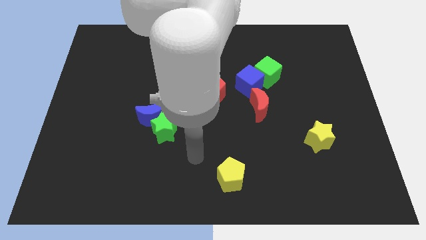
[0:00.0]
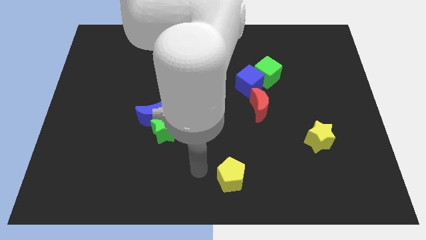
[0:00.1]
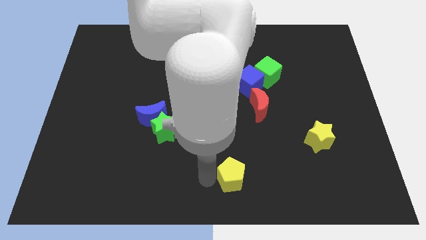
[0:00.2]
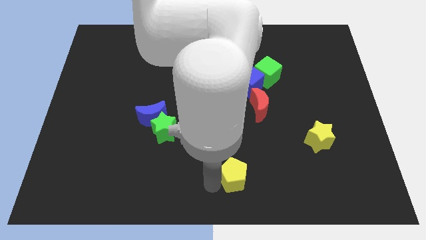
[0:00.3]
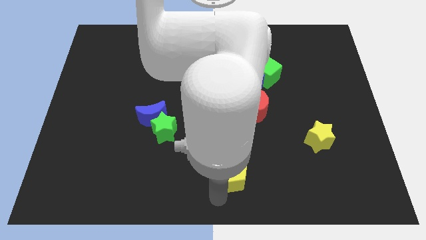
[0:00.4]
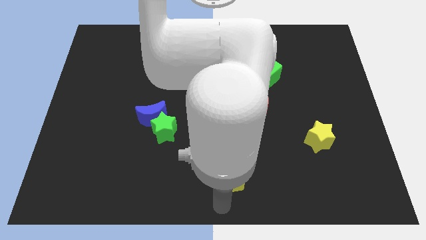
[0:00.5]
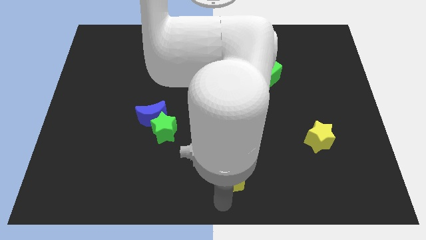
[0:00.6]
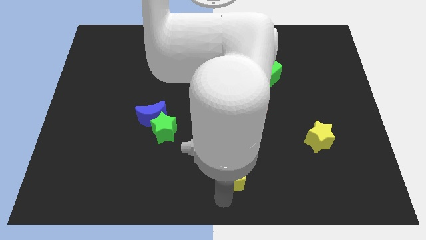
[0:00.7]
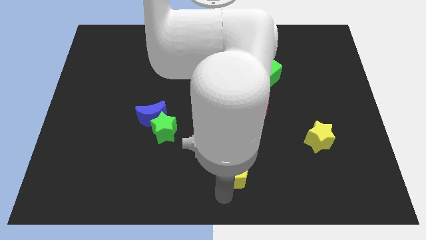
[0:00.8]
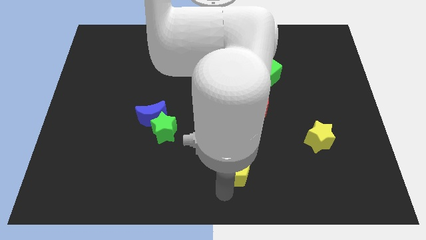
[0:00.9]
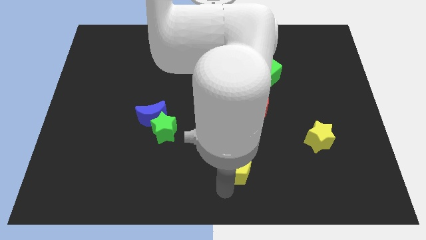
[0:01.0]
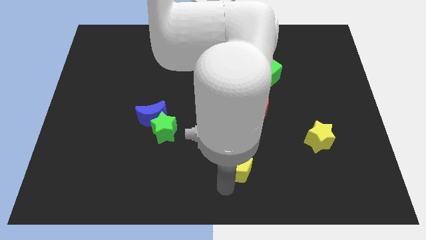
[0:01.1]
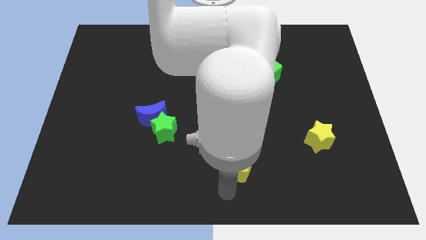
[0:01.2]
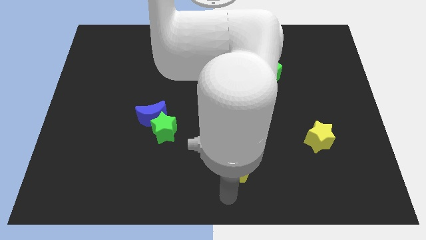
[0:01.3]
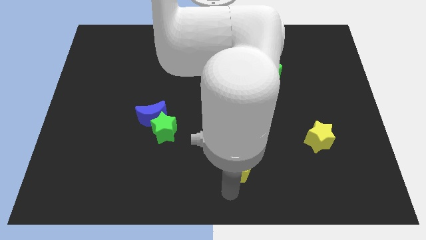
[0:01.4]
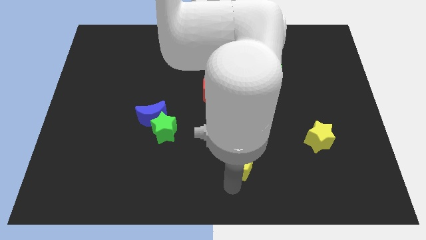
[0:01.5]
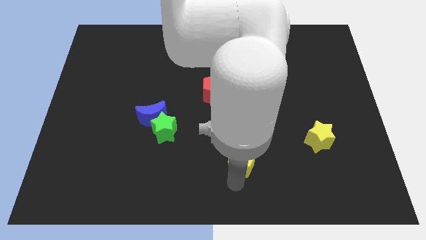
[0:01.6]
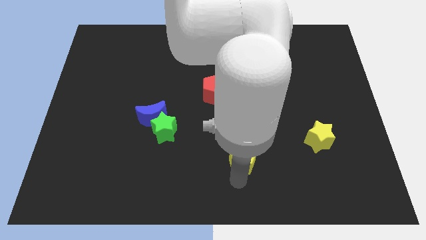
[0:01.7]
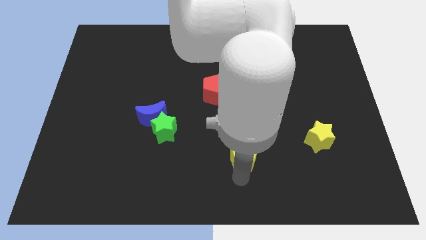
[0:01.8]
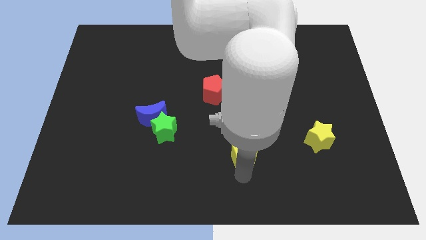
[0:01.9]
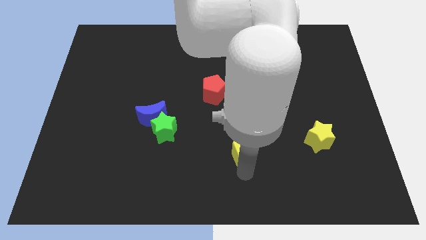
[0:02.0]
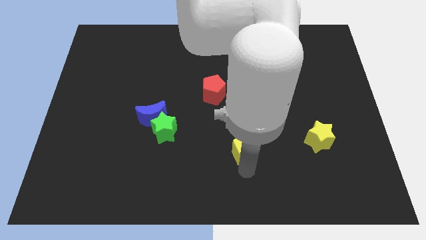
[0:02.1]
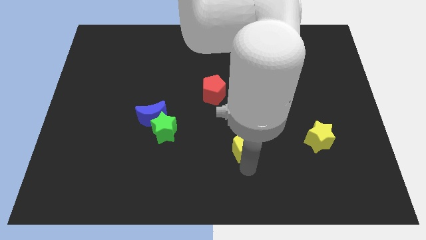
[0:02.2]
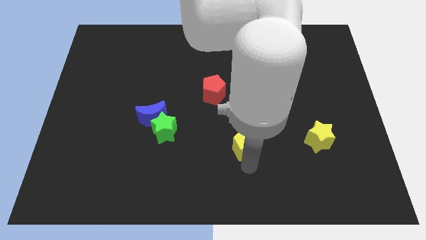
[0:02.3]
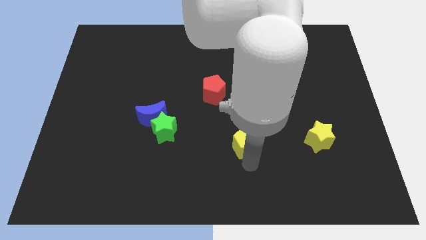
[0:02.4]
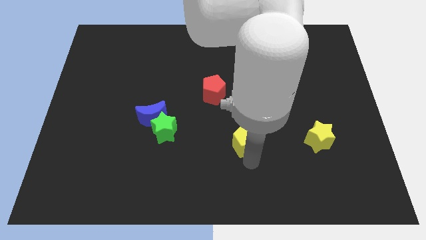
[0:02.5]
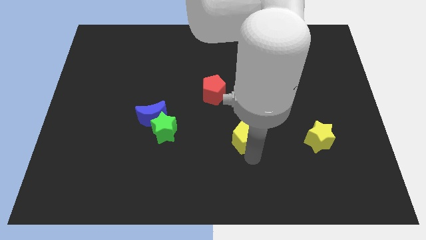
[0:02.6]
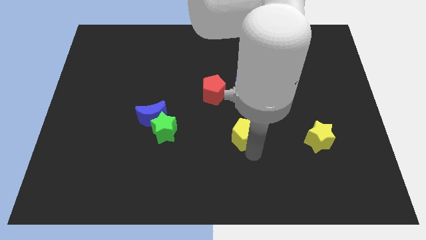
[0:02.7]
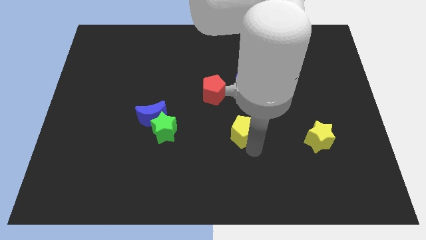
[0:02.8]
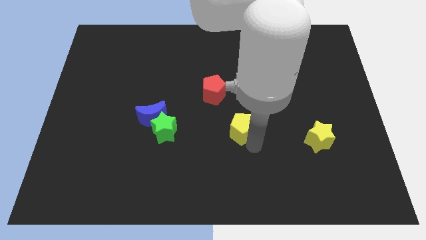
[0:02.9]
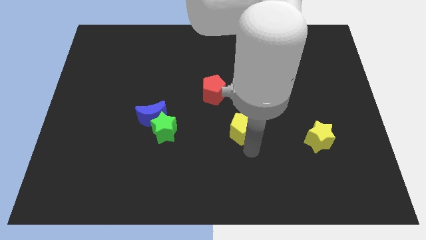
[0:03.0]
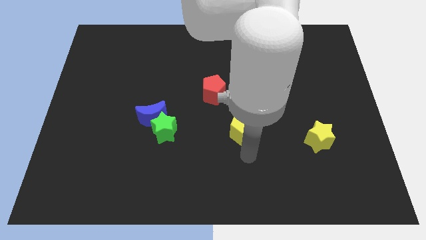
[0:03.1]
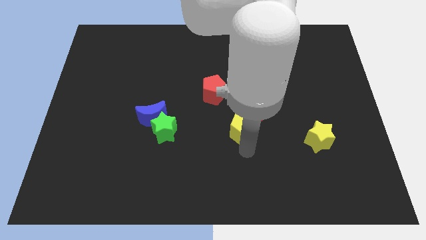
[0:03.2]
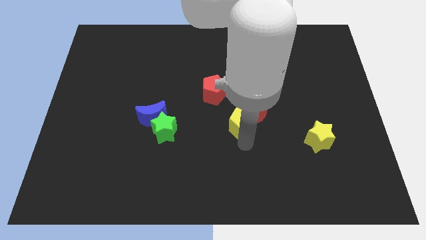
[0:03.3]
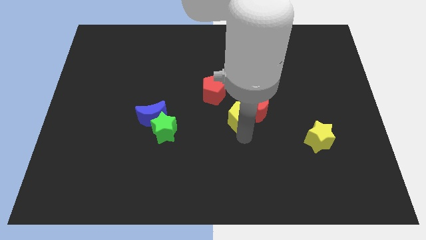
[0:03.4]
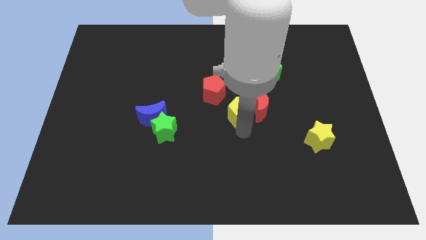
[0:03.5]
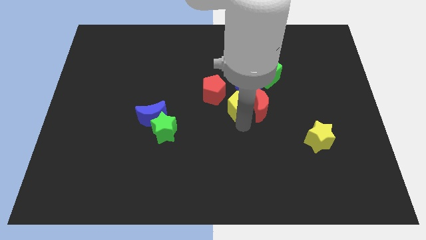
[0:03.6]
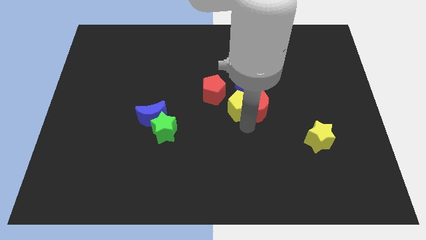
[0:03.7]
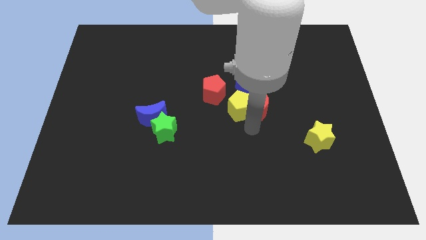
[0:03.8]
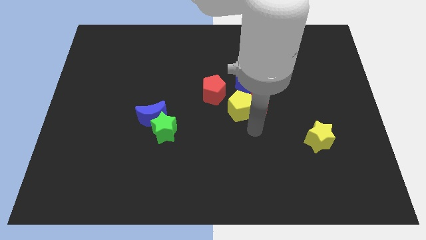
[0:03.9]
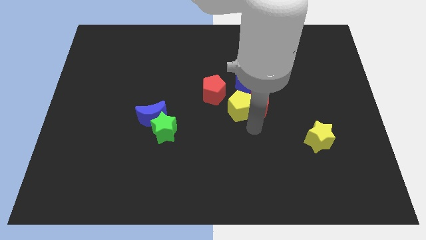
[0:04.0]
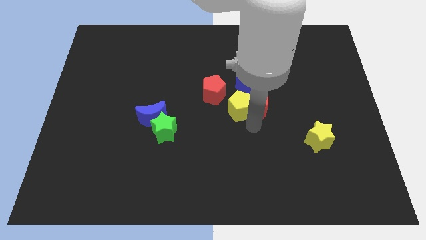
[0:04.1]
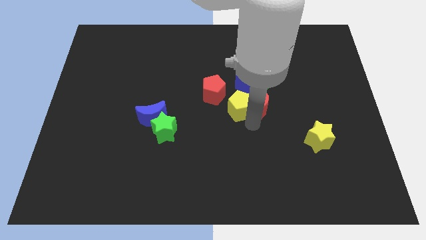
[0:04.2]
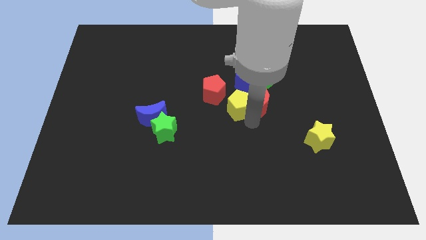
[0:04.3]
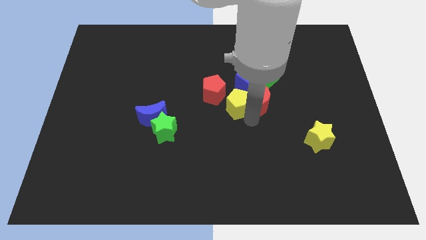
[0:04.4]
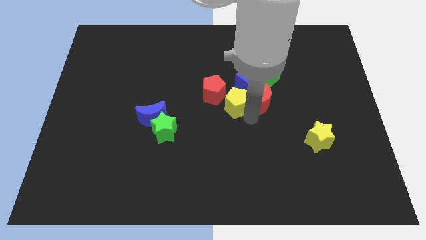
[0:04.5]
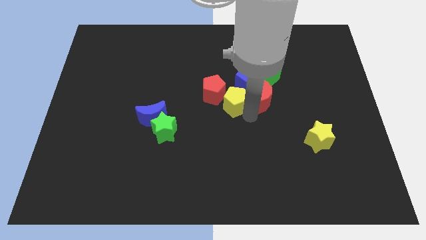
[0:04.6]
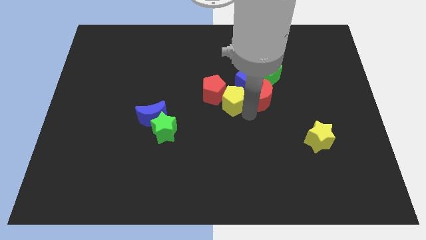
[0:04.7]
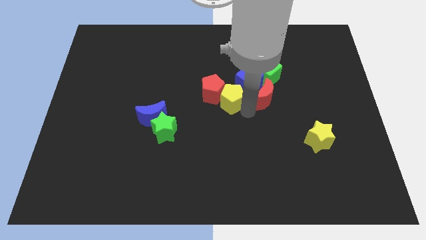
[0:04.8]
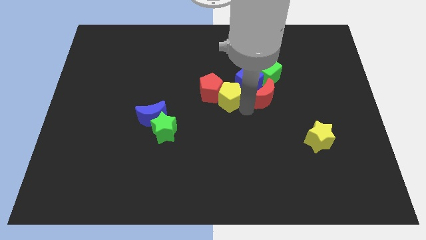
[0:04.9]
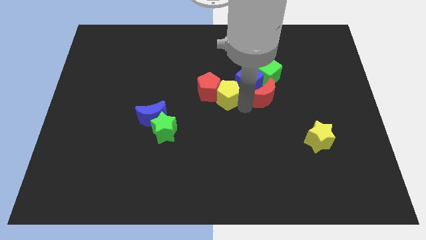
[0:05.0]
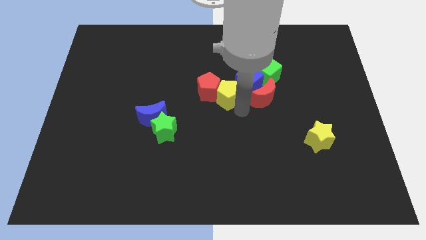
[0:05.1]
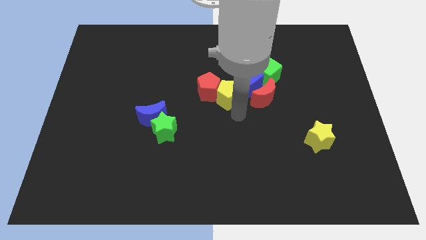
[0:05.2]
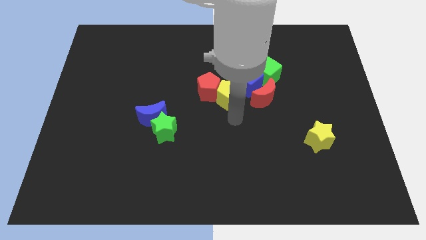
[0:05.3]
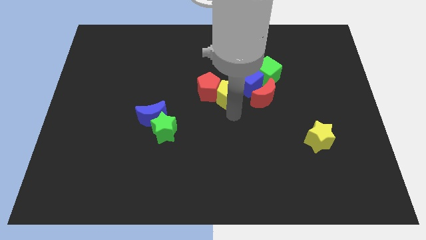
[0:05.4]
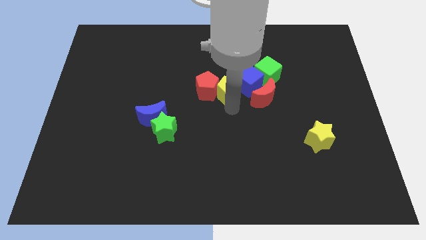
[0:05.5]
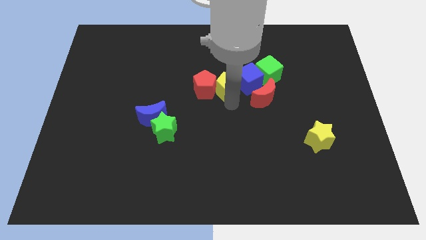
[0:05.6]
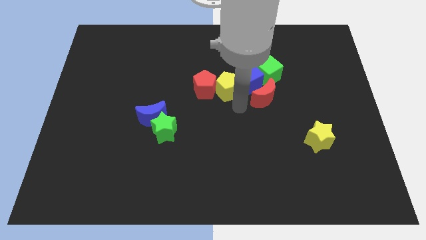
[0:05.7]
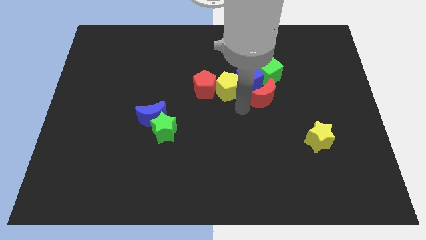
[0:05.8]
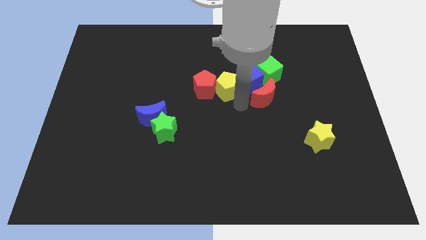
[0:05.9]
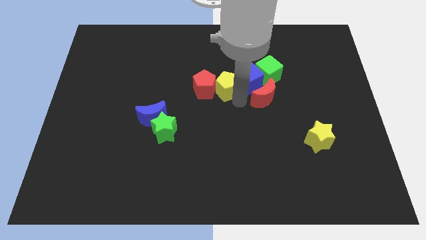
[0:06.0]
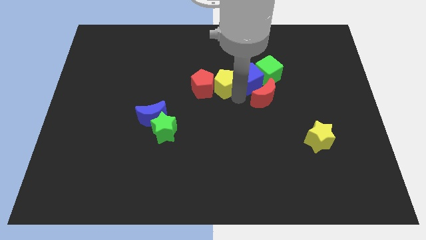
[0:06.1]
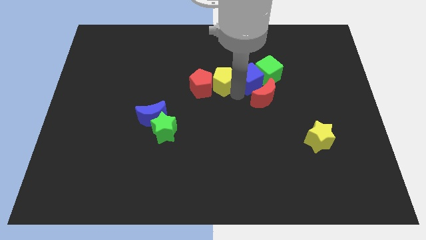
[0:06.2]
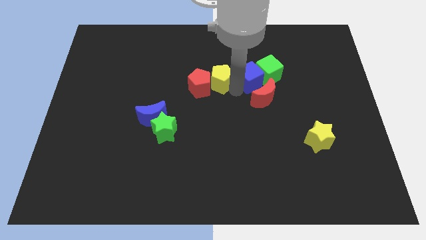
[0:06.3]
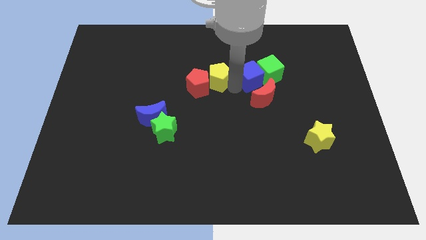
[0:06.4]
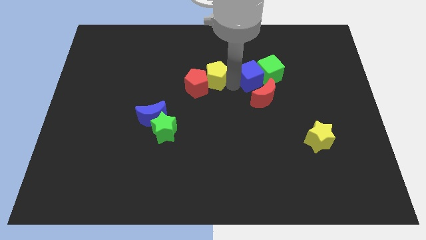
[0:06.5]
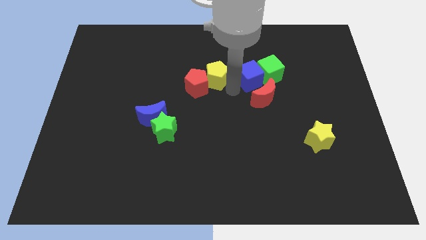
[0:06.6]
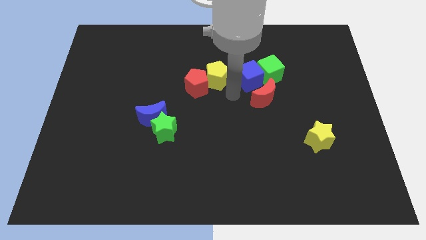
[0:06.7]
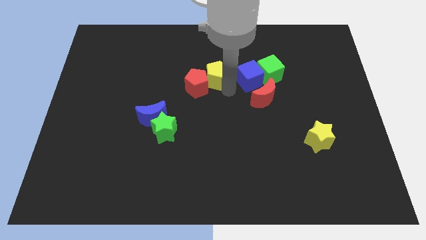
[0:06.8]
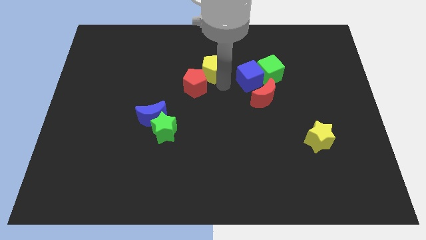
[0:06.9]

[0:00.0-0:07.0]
slide the yellow pentagon above the red pentagon

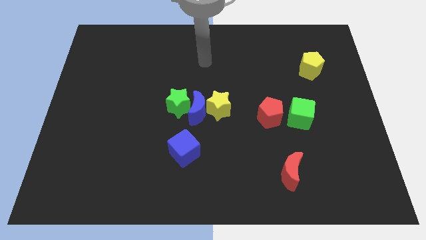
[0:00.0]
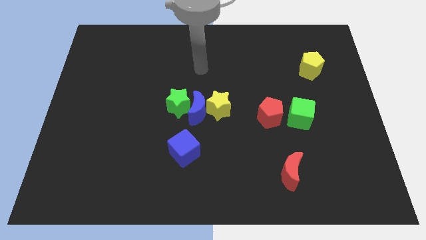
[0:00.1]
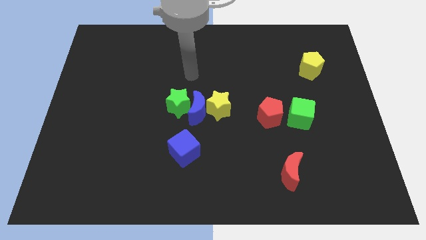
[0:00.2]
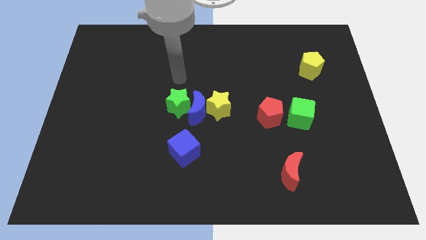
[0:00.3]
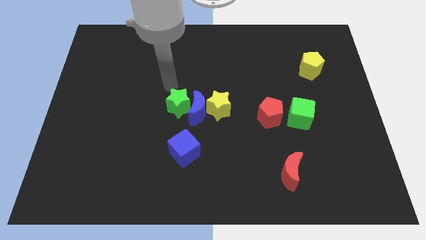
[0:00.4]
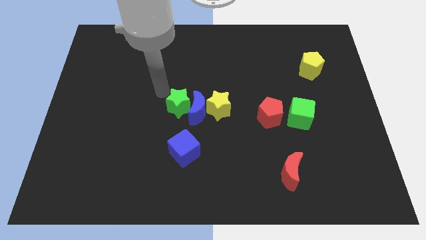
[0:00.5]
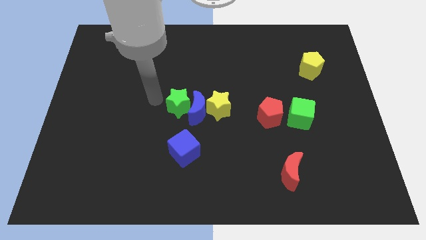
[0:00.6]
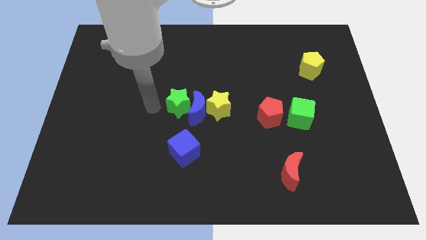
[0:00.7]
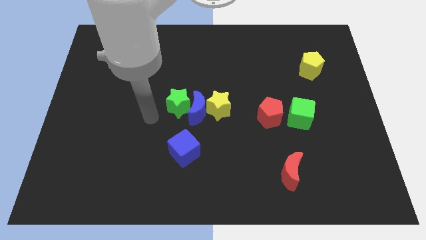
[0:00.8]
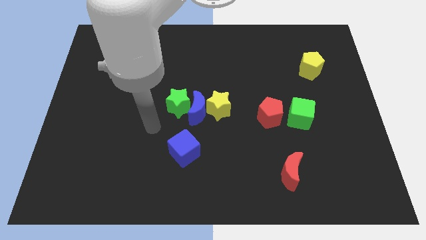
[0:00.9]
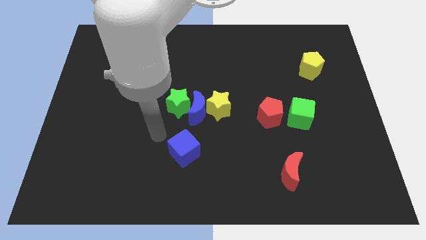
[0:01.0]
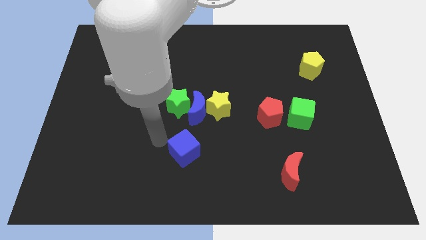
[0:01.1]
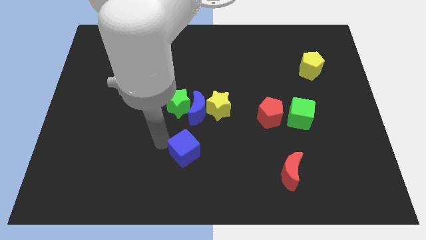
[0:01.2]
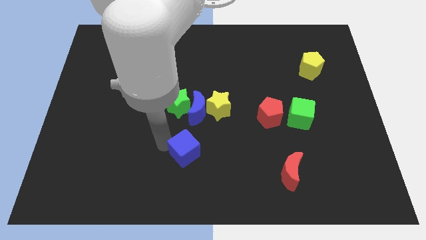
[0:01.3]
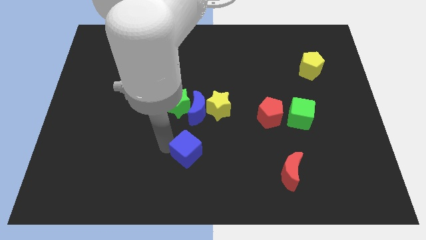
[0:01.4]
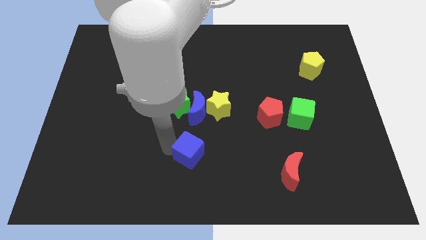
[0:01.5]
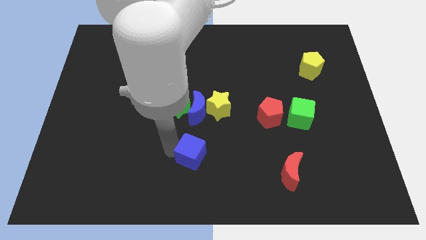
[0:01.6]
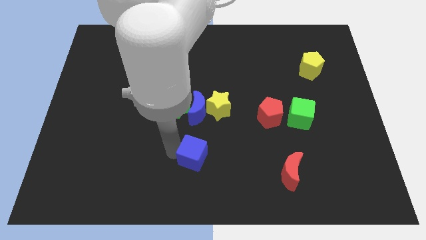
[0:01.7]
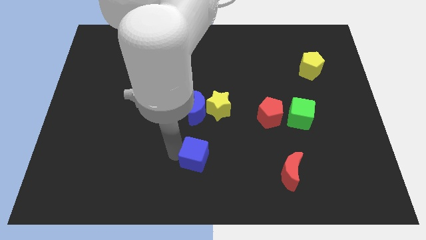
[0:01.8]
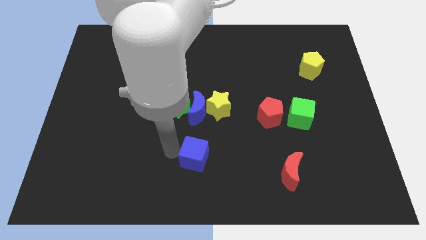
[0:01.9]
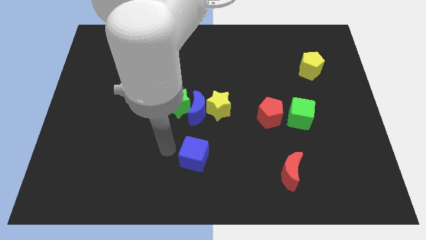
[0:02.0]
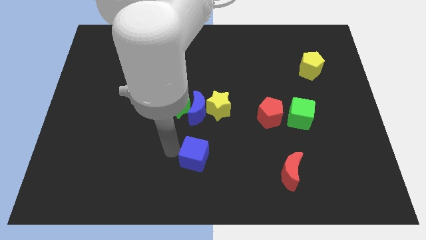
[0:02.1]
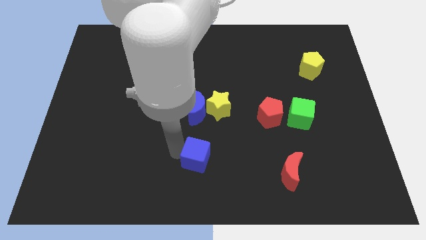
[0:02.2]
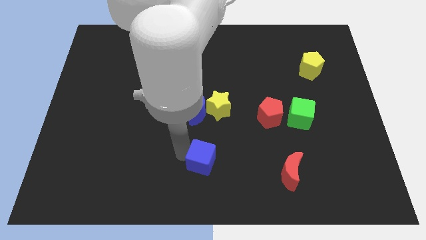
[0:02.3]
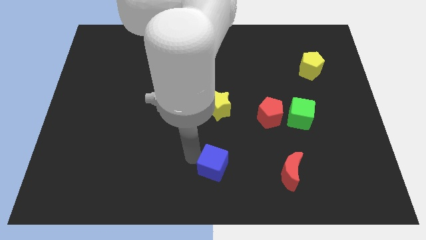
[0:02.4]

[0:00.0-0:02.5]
move the blue cube to the left side of the red moon
